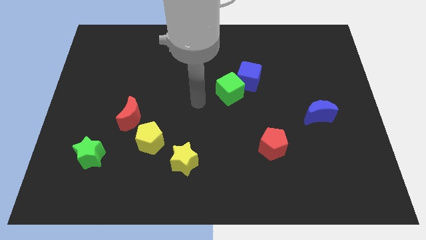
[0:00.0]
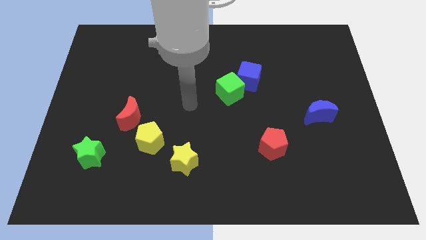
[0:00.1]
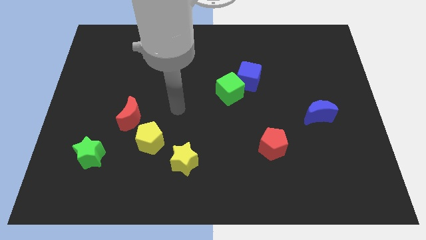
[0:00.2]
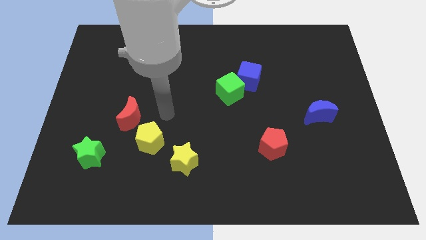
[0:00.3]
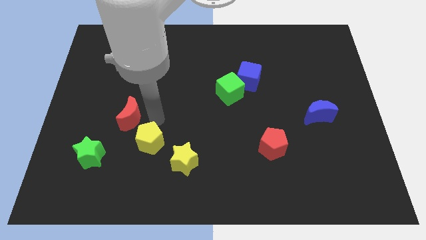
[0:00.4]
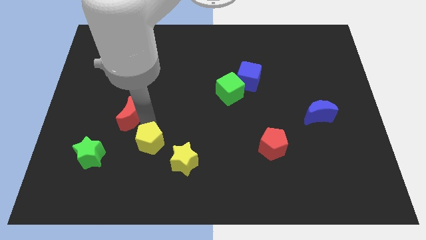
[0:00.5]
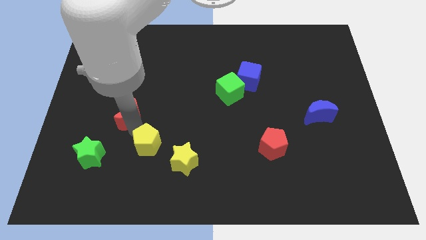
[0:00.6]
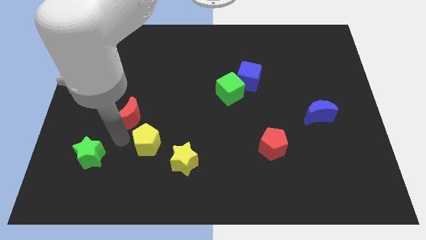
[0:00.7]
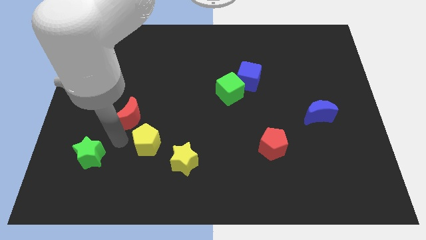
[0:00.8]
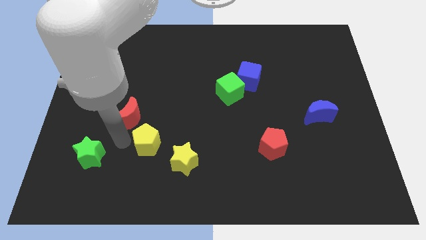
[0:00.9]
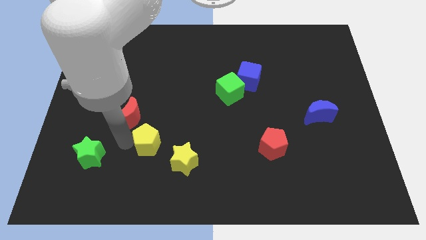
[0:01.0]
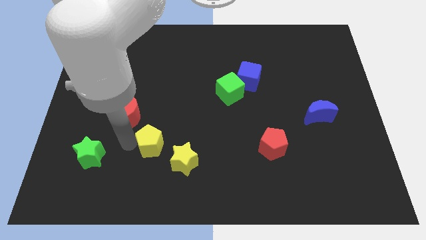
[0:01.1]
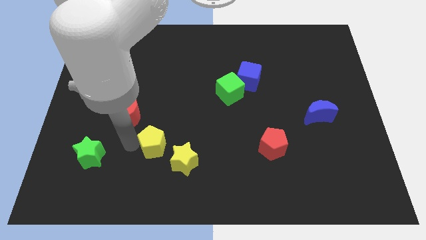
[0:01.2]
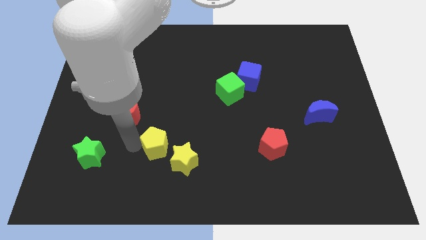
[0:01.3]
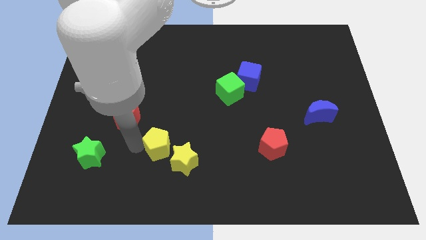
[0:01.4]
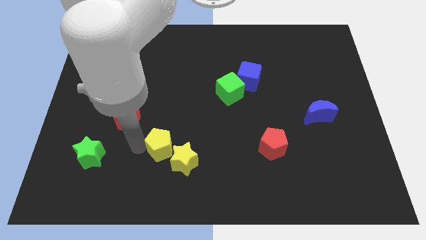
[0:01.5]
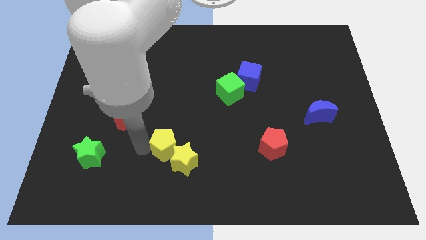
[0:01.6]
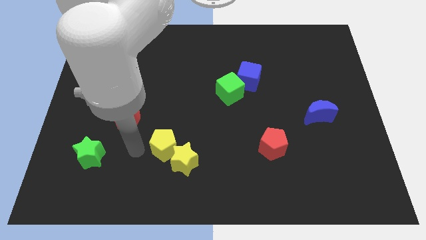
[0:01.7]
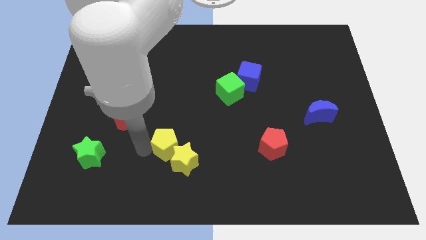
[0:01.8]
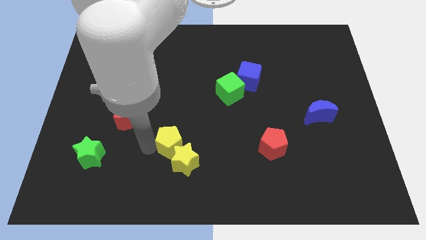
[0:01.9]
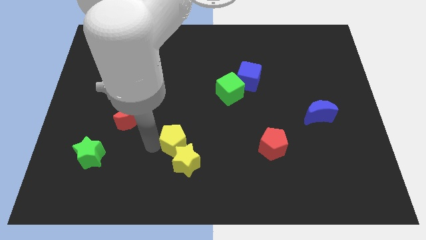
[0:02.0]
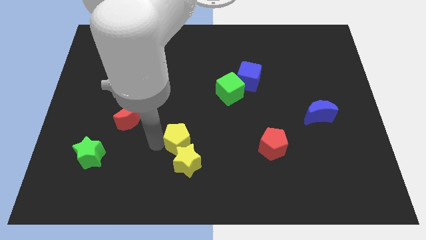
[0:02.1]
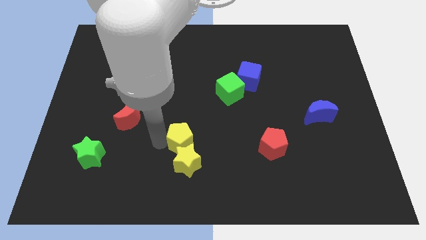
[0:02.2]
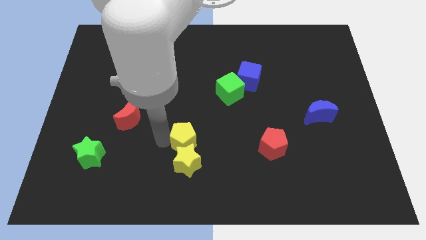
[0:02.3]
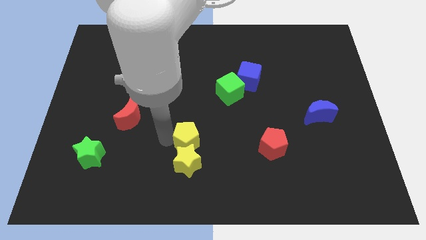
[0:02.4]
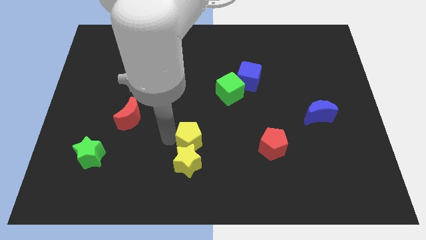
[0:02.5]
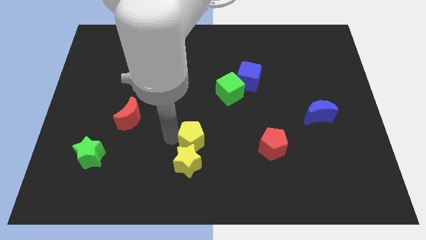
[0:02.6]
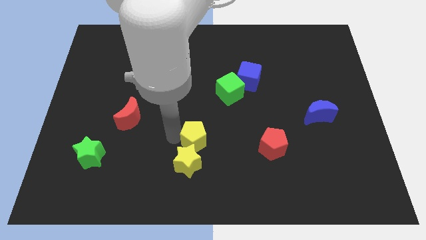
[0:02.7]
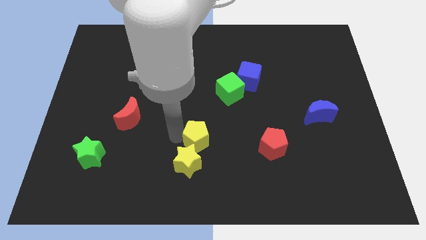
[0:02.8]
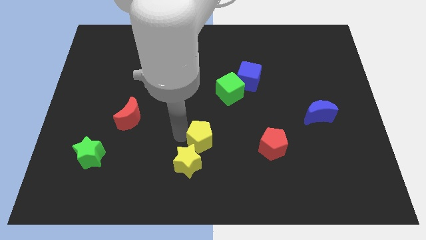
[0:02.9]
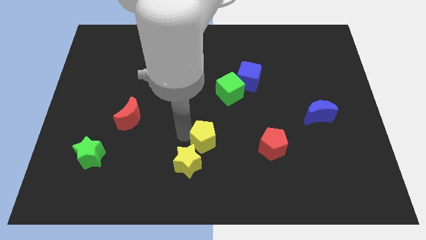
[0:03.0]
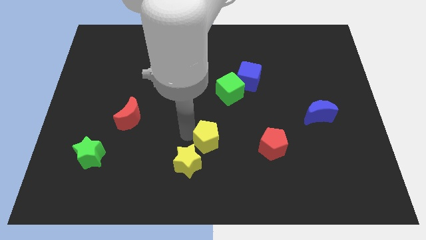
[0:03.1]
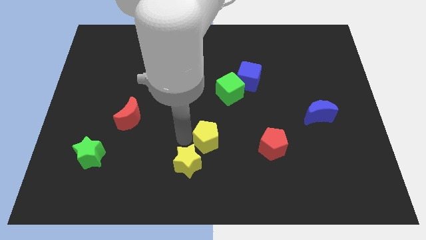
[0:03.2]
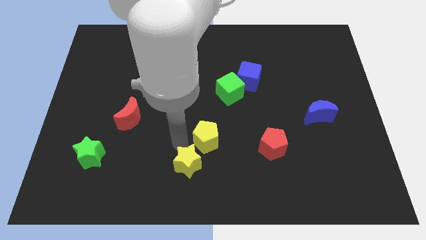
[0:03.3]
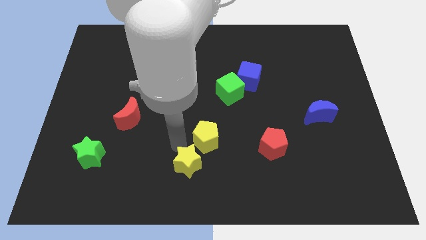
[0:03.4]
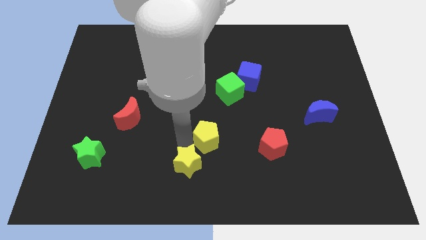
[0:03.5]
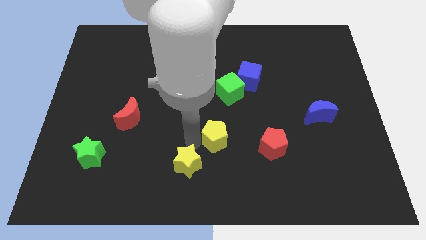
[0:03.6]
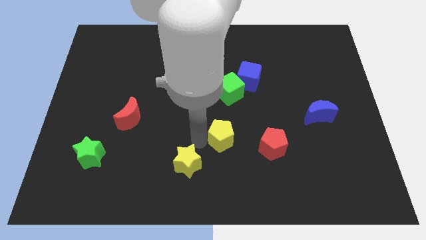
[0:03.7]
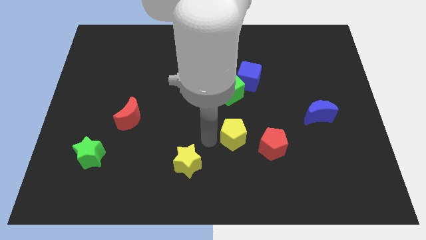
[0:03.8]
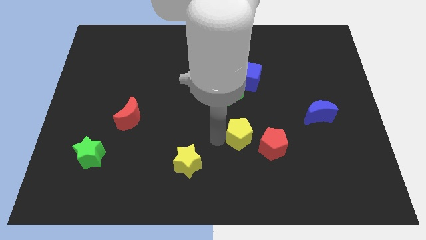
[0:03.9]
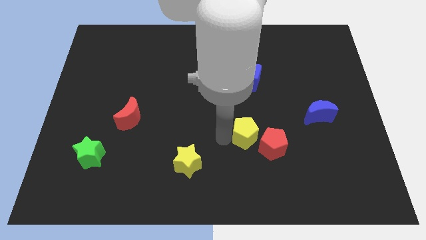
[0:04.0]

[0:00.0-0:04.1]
move the yellow pentagon right

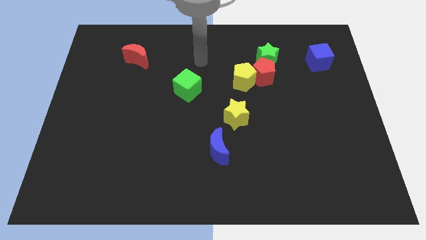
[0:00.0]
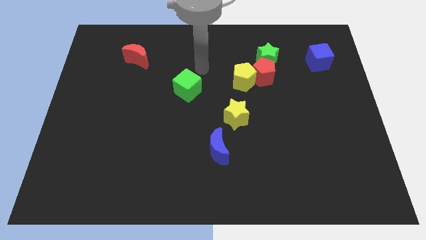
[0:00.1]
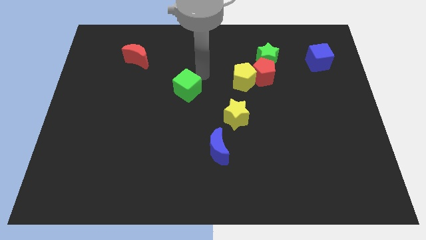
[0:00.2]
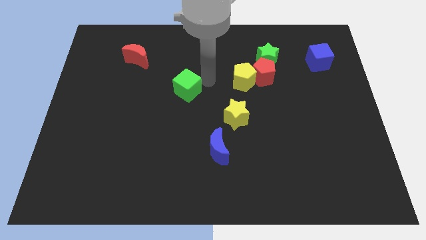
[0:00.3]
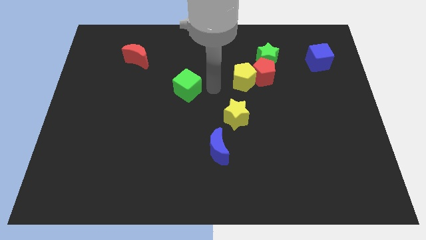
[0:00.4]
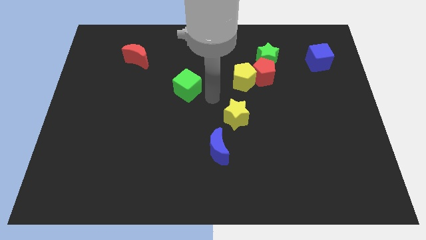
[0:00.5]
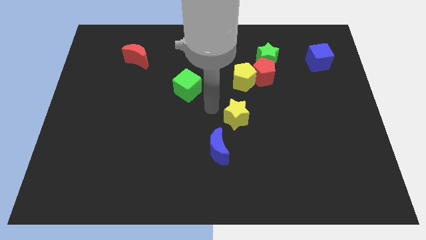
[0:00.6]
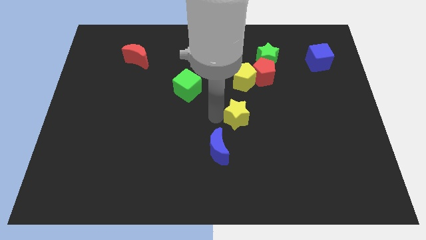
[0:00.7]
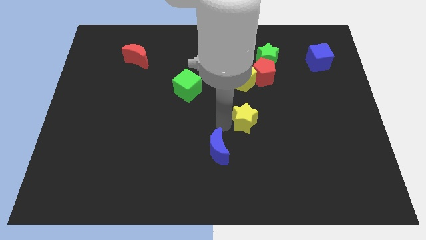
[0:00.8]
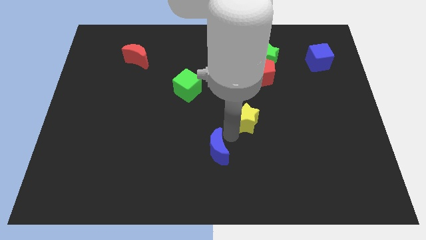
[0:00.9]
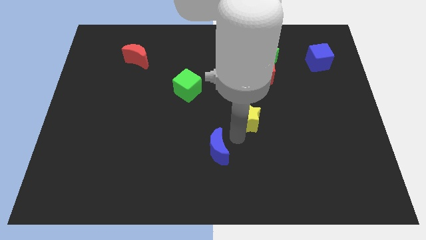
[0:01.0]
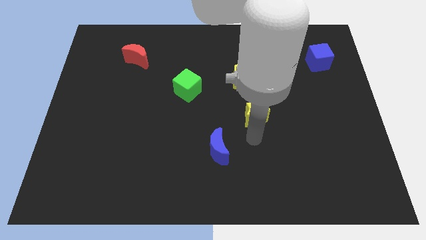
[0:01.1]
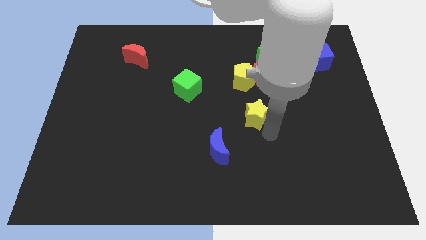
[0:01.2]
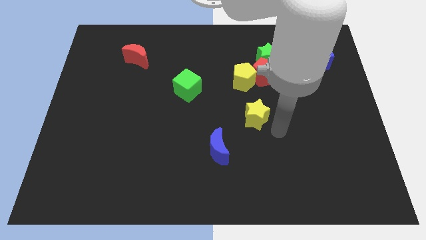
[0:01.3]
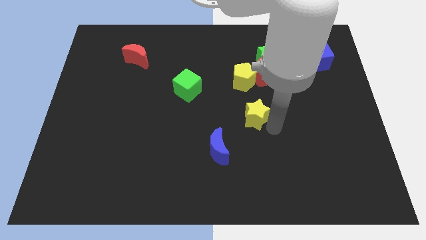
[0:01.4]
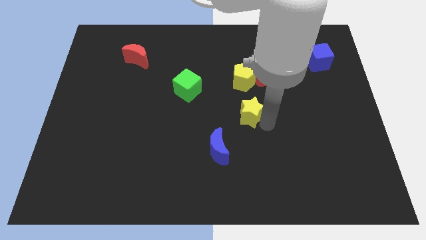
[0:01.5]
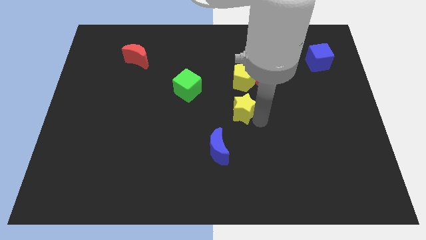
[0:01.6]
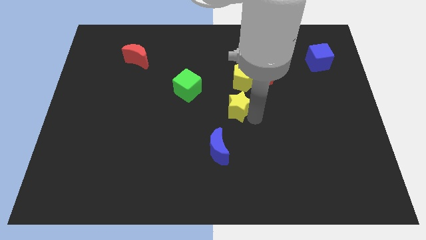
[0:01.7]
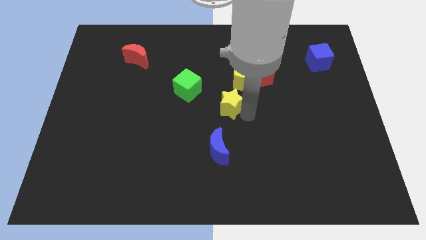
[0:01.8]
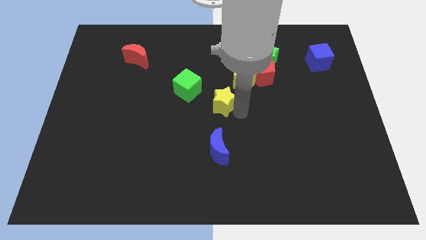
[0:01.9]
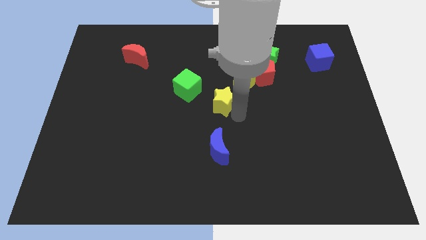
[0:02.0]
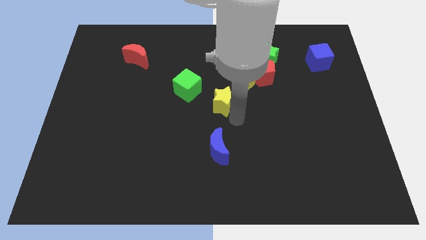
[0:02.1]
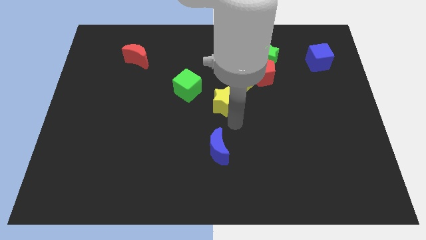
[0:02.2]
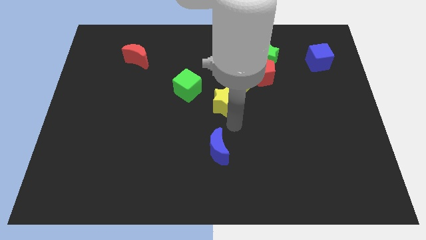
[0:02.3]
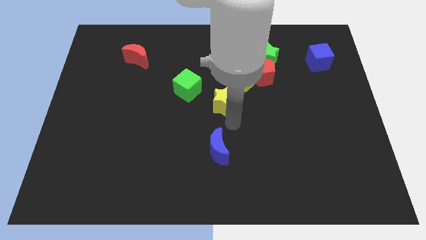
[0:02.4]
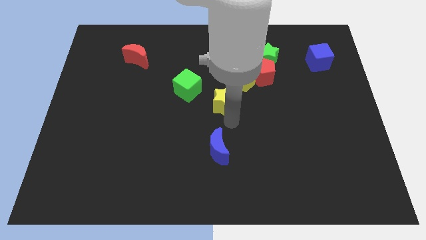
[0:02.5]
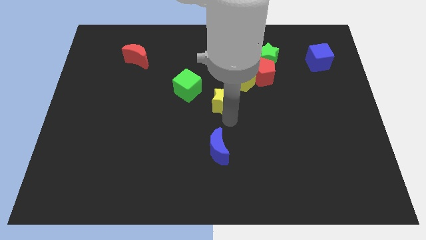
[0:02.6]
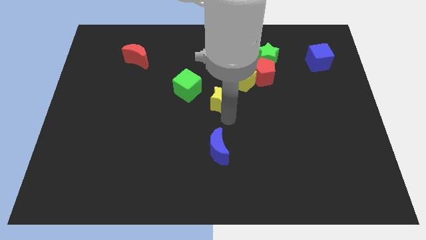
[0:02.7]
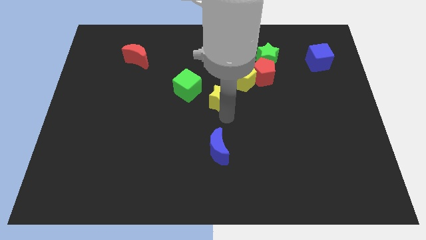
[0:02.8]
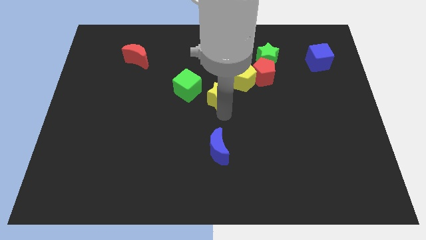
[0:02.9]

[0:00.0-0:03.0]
slide the yellow star up and left somewhat

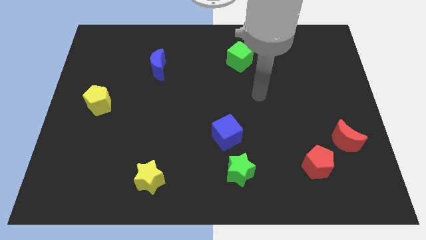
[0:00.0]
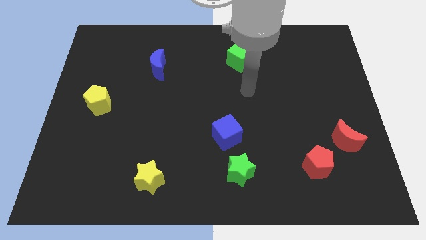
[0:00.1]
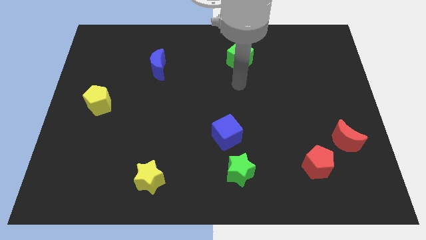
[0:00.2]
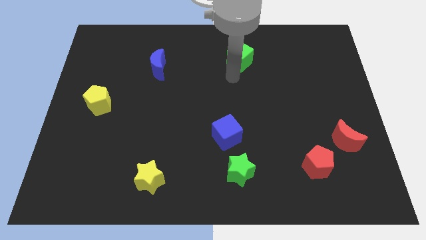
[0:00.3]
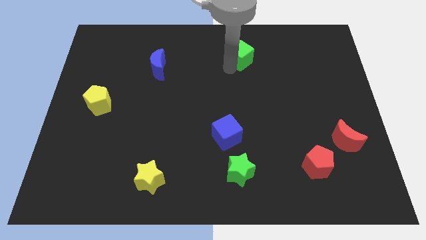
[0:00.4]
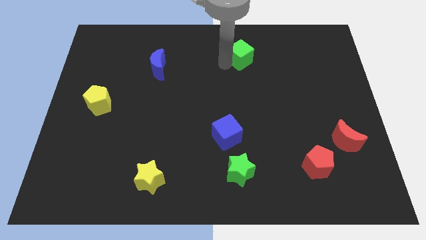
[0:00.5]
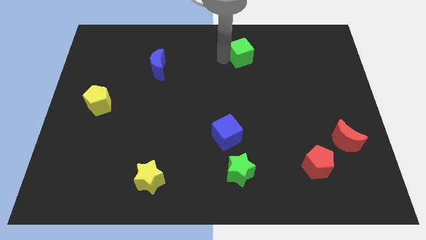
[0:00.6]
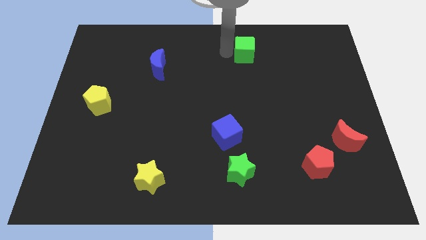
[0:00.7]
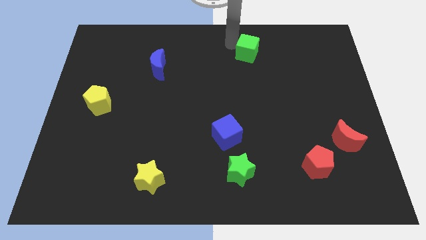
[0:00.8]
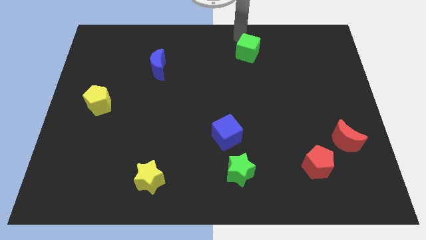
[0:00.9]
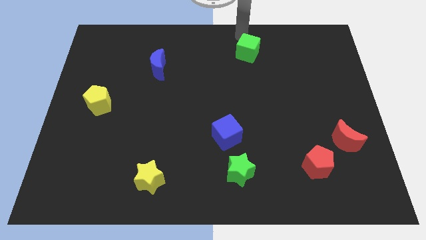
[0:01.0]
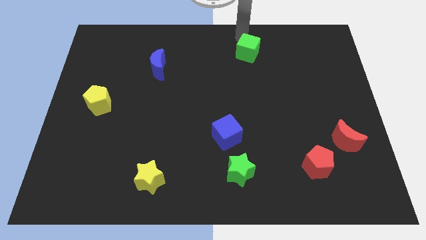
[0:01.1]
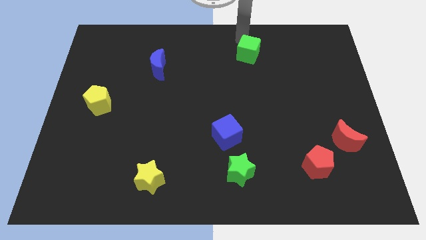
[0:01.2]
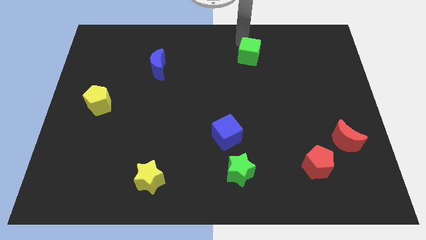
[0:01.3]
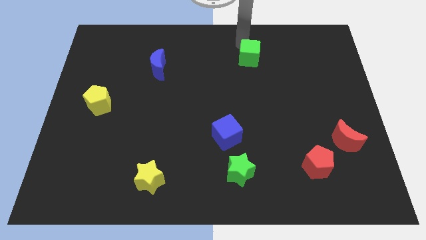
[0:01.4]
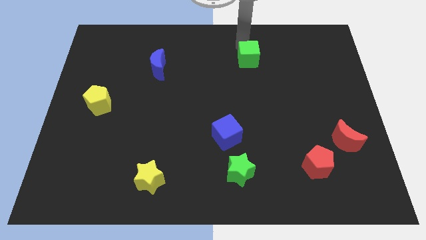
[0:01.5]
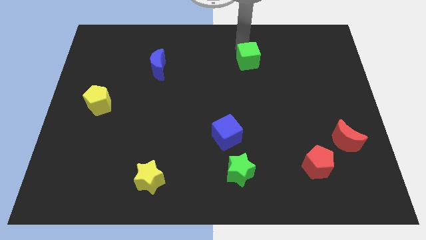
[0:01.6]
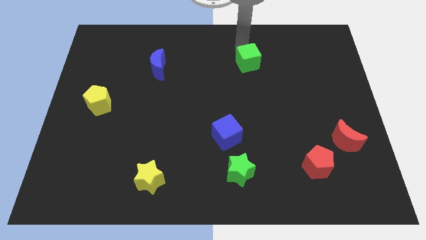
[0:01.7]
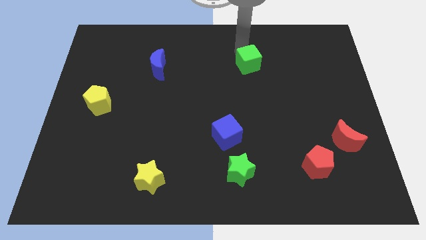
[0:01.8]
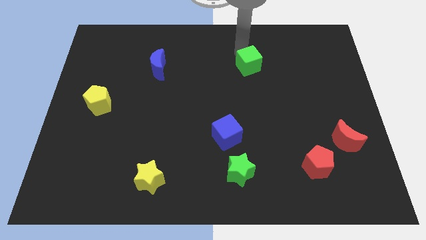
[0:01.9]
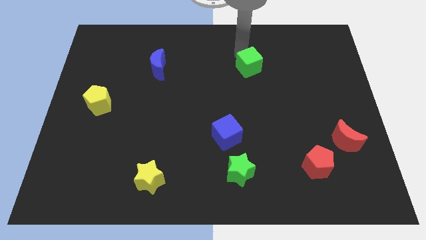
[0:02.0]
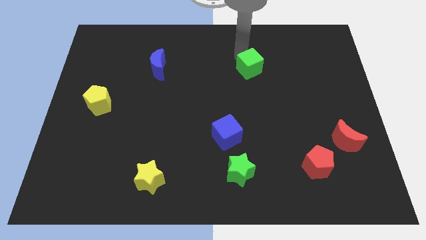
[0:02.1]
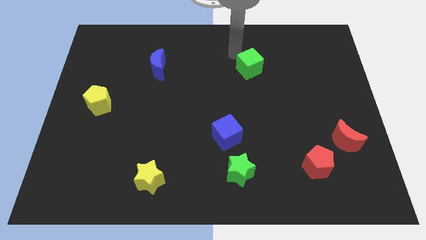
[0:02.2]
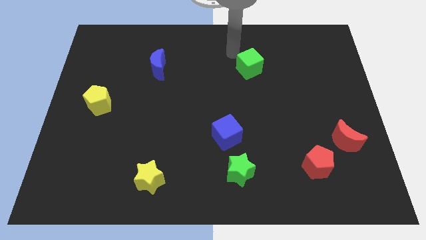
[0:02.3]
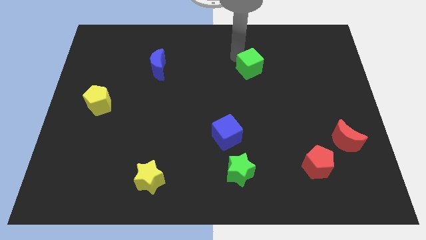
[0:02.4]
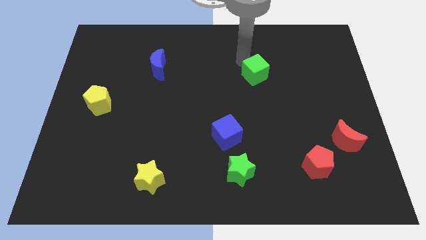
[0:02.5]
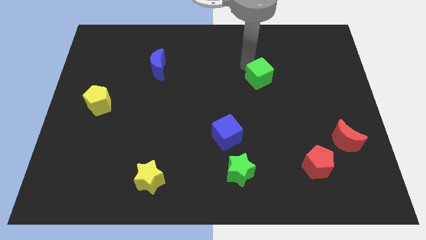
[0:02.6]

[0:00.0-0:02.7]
slide the green cube diagonally down and right a little bit
